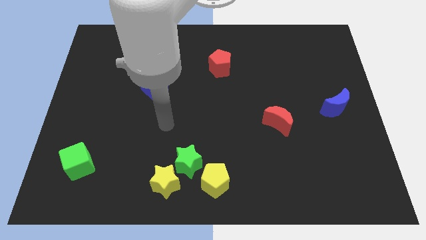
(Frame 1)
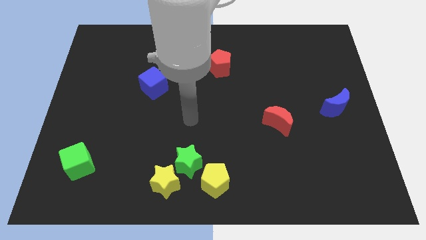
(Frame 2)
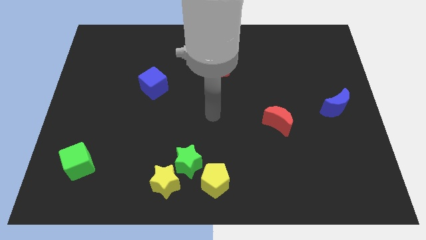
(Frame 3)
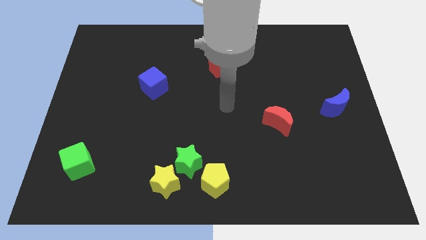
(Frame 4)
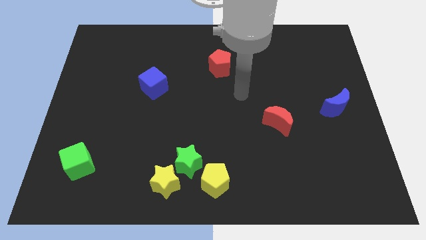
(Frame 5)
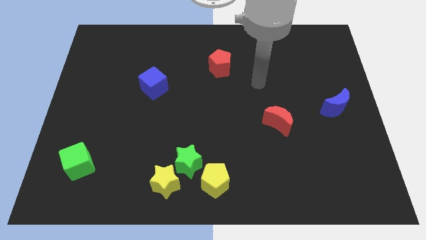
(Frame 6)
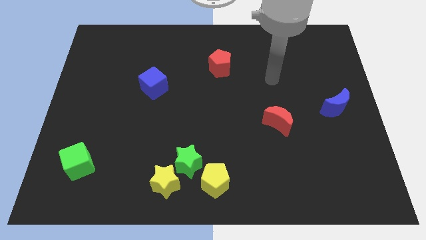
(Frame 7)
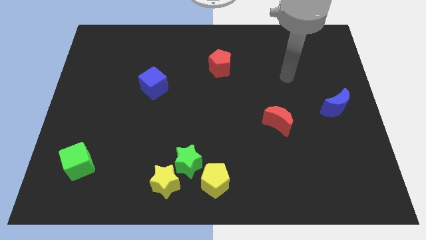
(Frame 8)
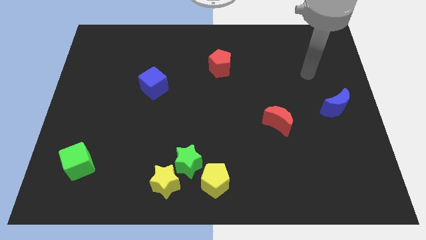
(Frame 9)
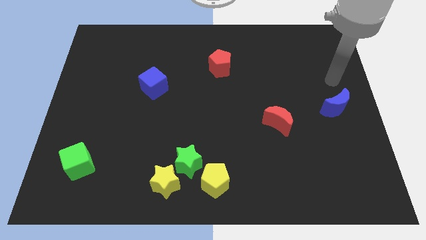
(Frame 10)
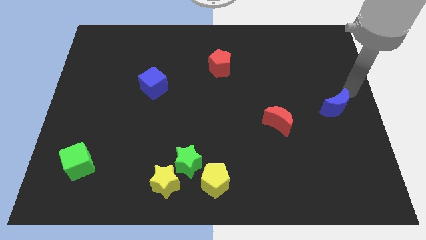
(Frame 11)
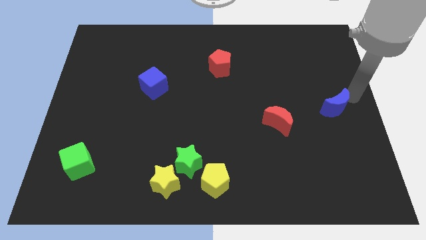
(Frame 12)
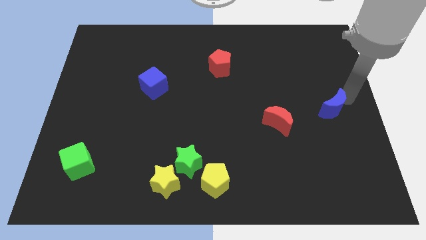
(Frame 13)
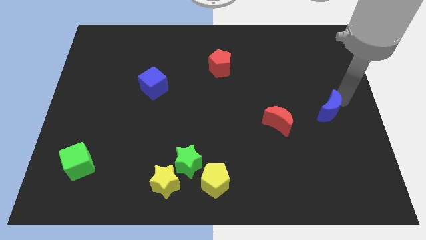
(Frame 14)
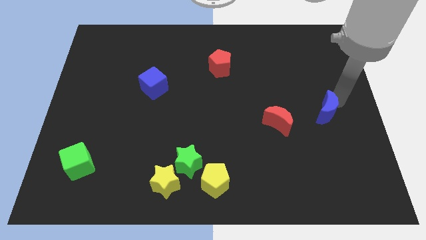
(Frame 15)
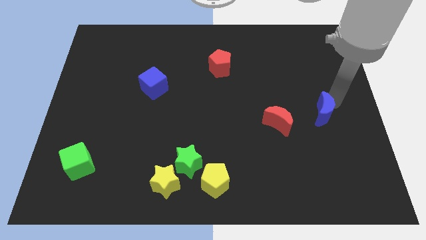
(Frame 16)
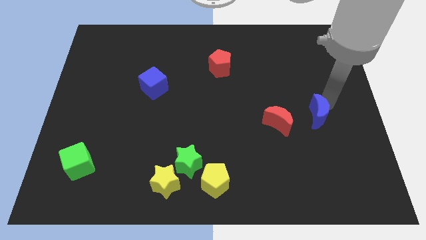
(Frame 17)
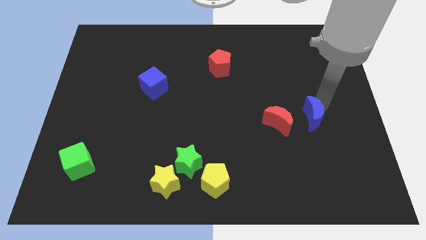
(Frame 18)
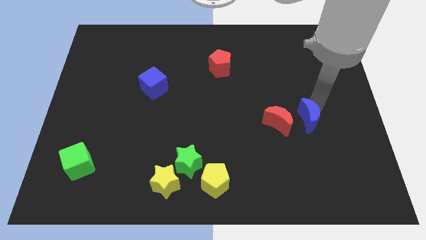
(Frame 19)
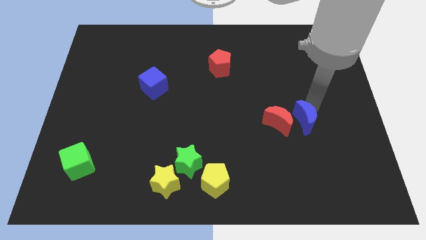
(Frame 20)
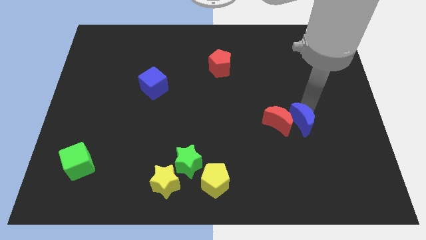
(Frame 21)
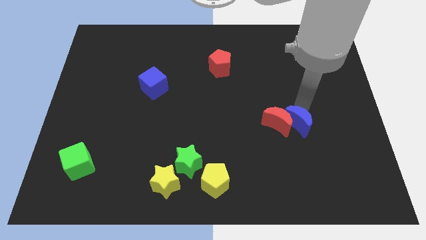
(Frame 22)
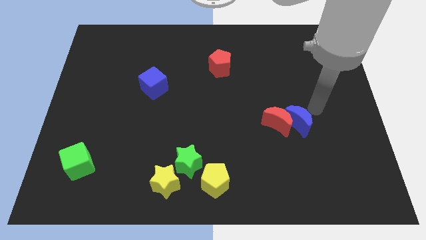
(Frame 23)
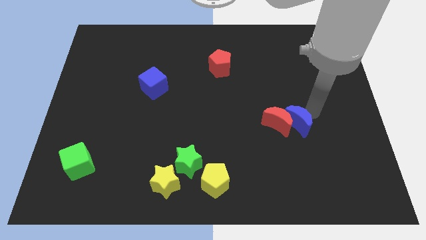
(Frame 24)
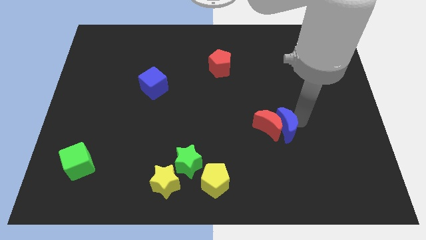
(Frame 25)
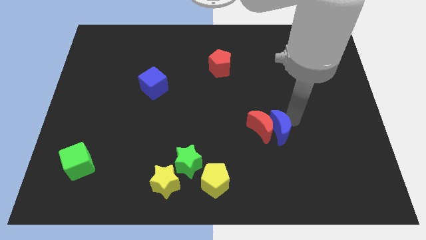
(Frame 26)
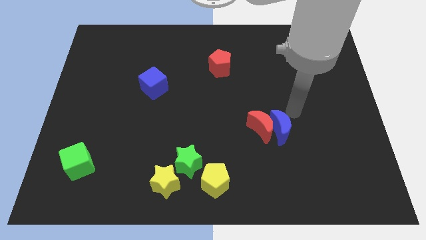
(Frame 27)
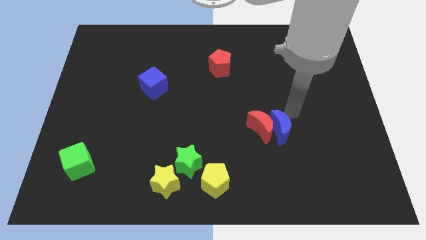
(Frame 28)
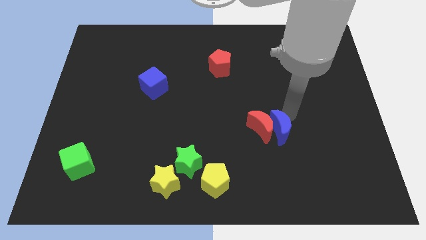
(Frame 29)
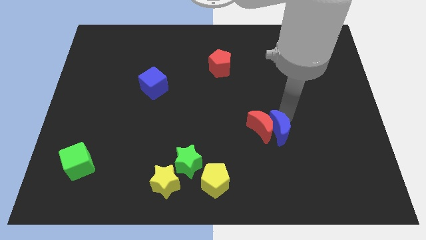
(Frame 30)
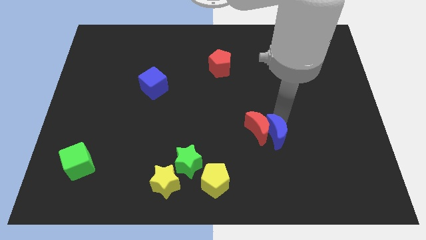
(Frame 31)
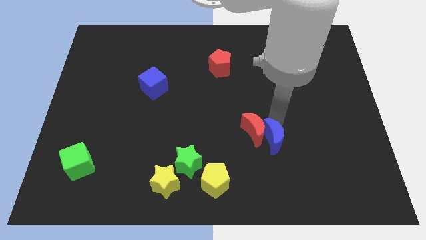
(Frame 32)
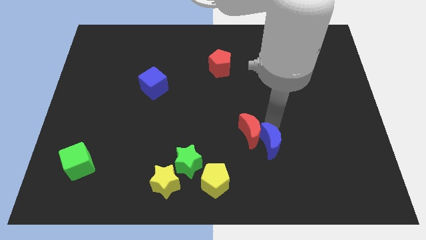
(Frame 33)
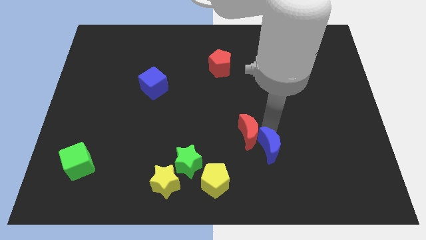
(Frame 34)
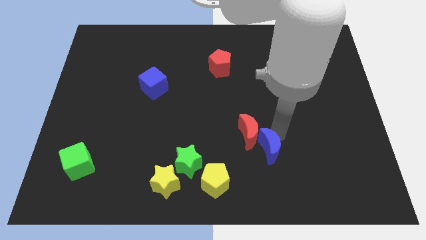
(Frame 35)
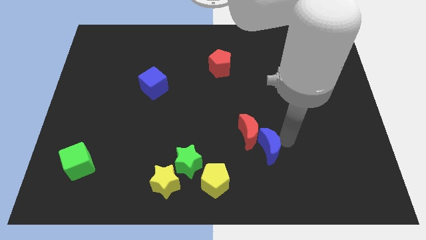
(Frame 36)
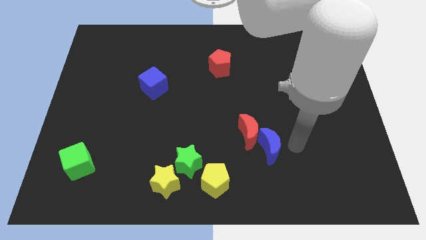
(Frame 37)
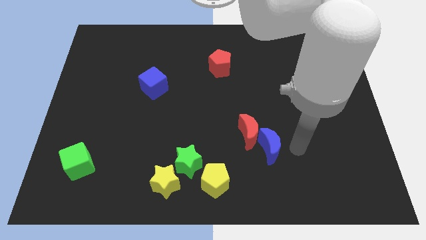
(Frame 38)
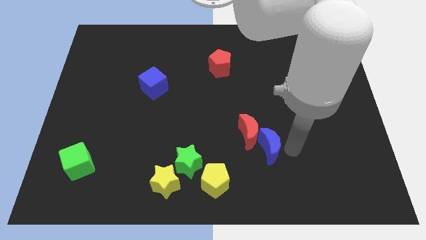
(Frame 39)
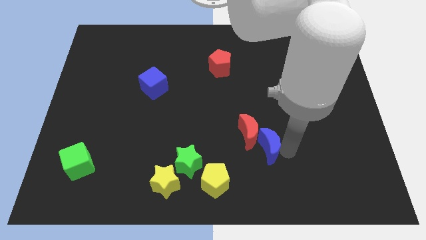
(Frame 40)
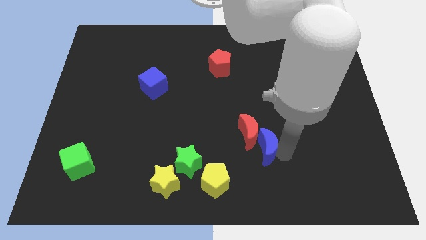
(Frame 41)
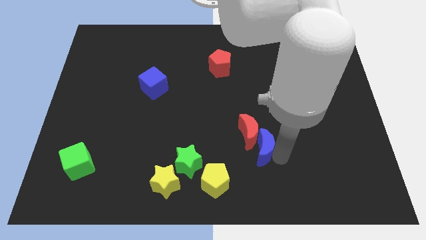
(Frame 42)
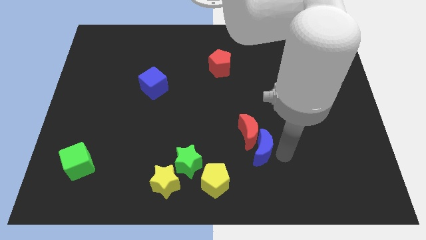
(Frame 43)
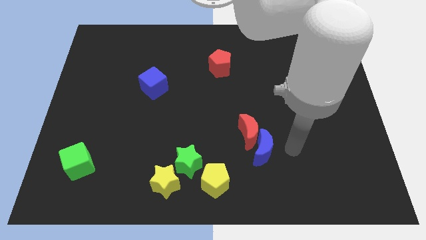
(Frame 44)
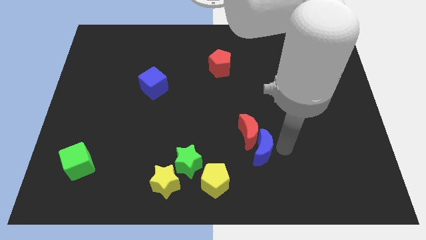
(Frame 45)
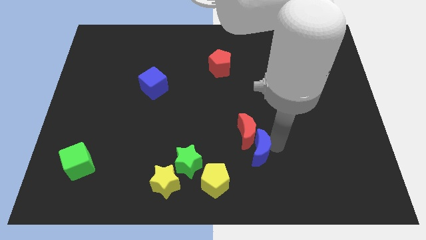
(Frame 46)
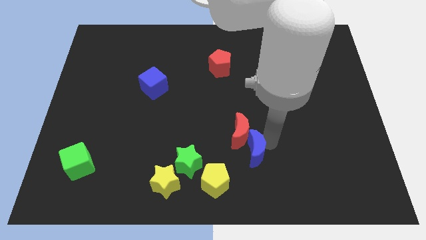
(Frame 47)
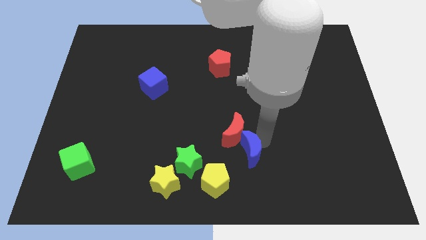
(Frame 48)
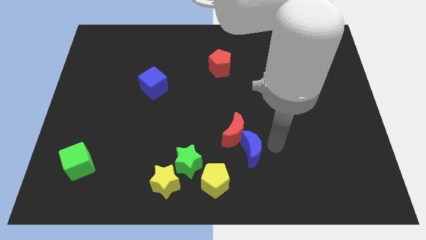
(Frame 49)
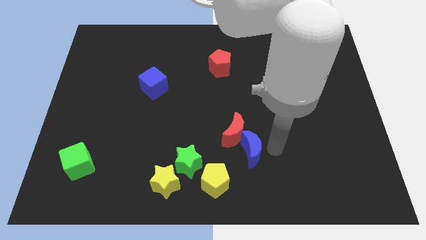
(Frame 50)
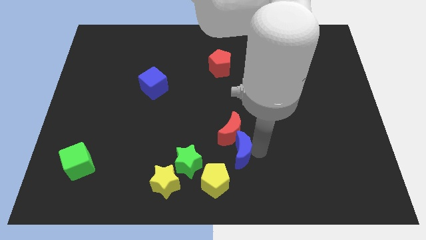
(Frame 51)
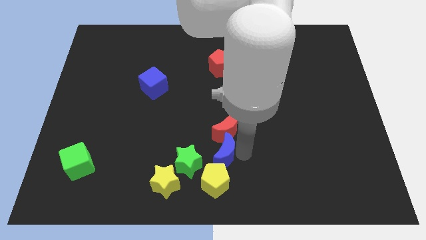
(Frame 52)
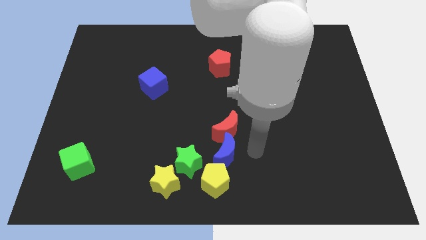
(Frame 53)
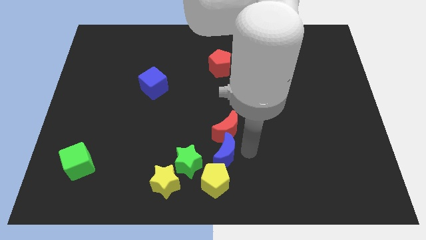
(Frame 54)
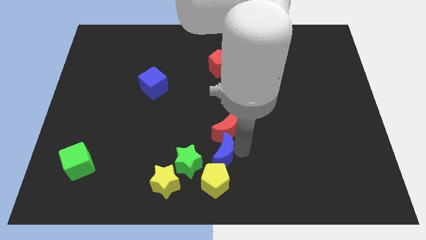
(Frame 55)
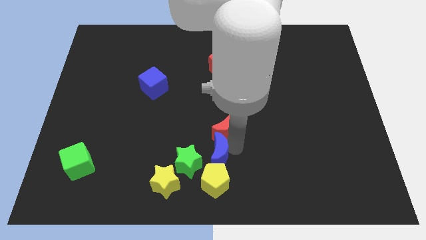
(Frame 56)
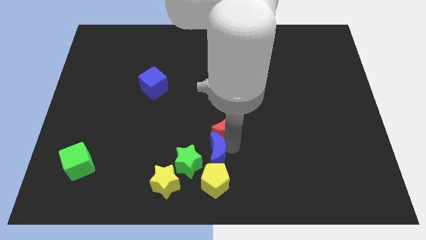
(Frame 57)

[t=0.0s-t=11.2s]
push the blue moon to the top right side of the yellow star

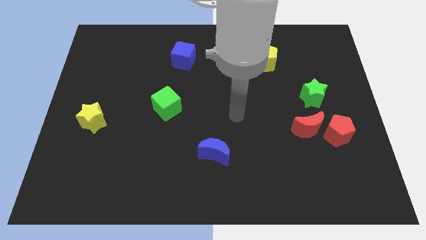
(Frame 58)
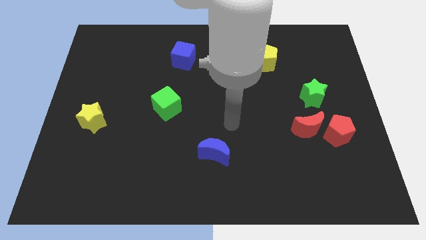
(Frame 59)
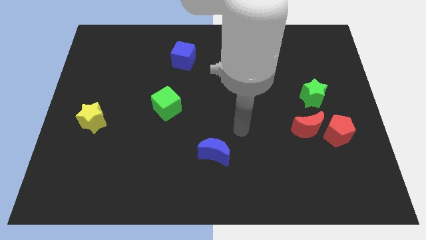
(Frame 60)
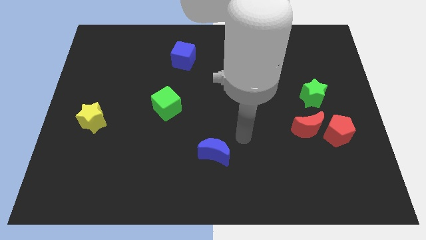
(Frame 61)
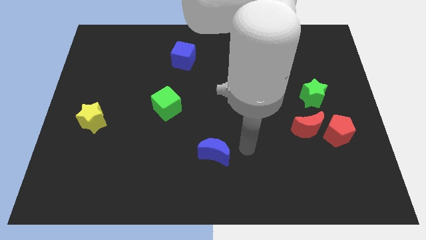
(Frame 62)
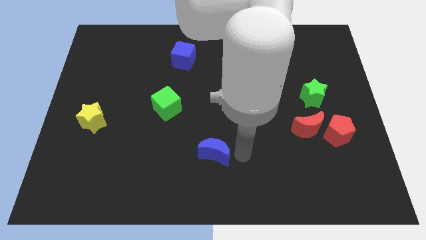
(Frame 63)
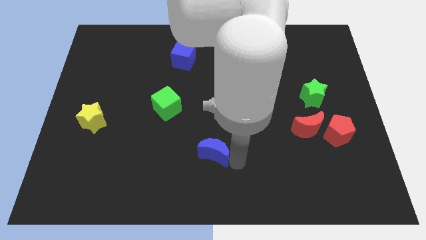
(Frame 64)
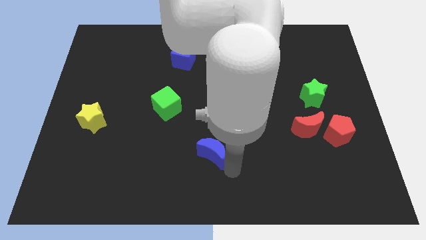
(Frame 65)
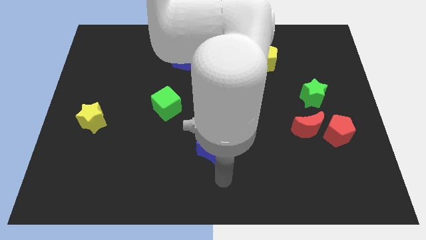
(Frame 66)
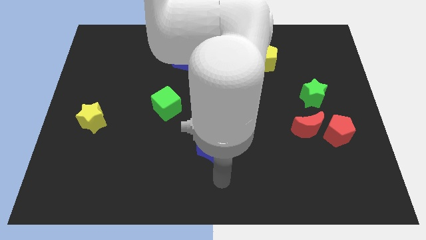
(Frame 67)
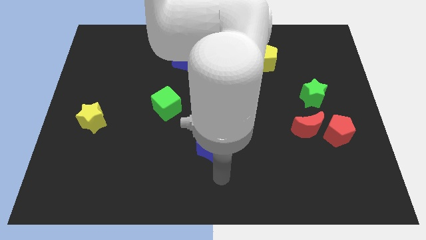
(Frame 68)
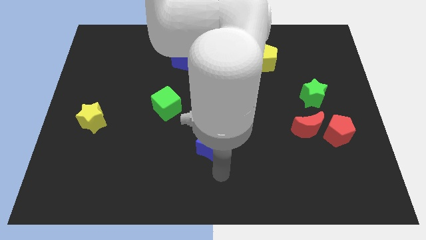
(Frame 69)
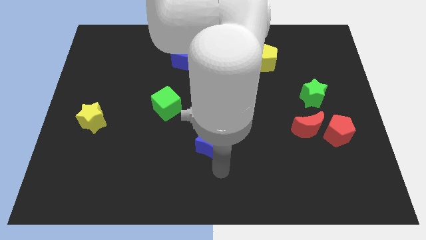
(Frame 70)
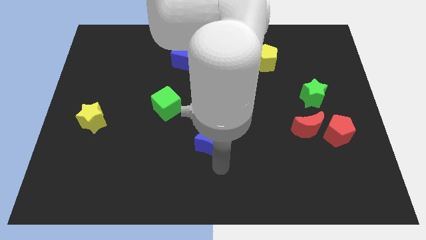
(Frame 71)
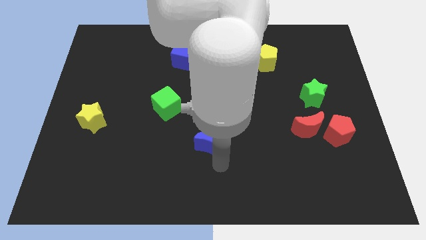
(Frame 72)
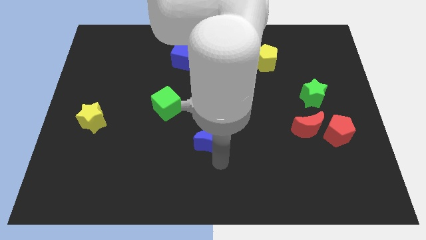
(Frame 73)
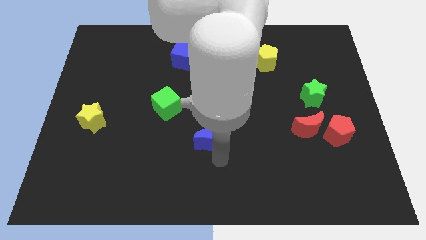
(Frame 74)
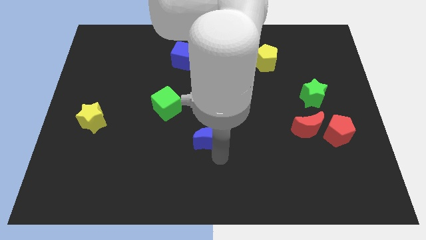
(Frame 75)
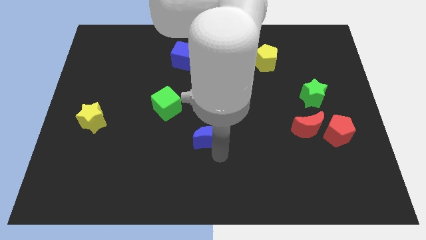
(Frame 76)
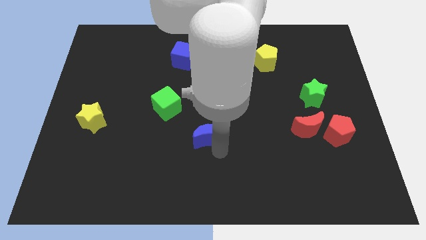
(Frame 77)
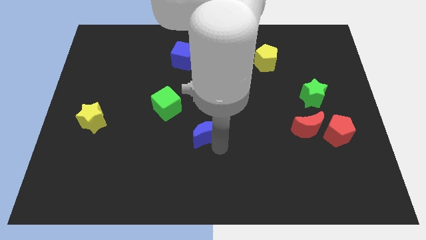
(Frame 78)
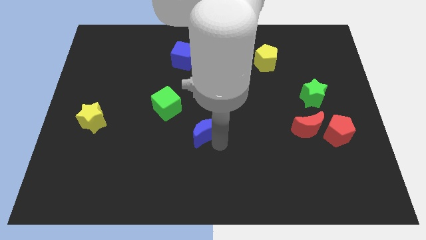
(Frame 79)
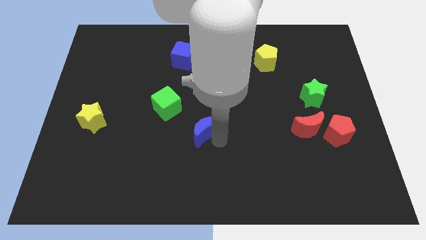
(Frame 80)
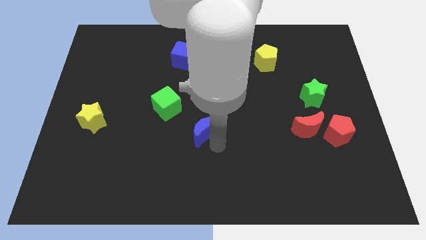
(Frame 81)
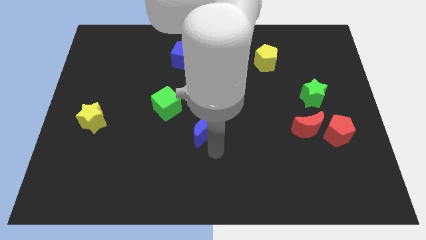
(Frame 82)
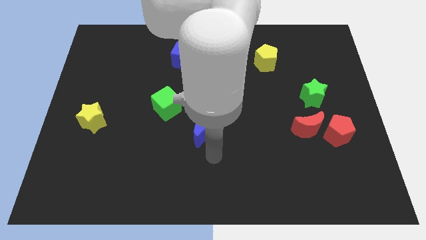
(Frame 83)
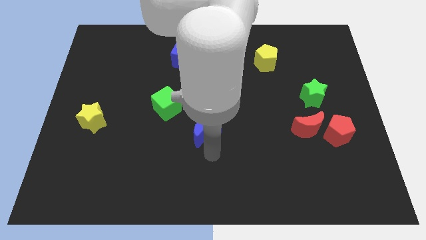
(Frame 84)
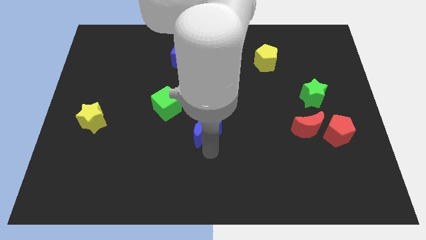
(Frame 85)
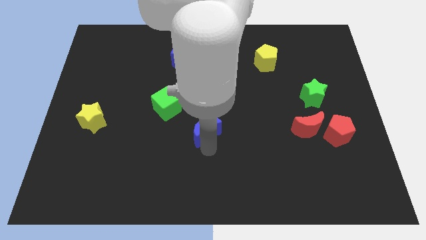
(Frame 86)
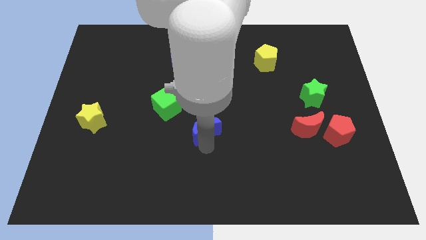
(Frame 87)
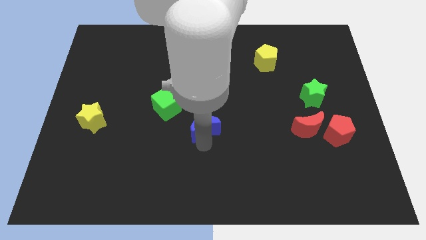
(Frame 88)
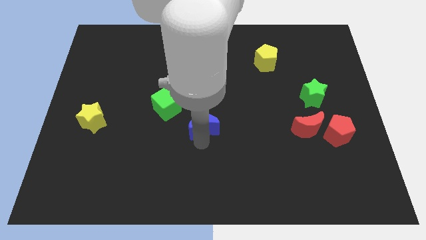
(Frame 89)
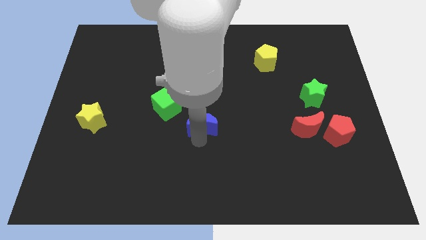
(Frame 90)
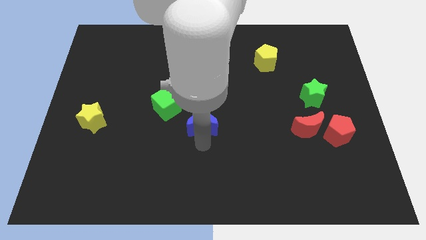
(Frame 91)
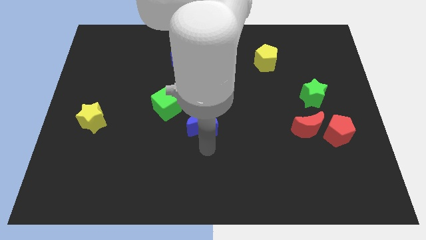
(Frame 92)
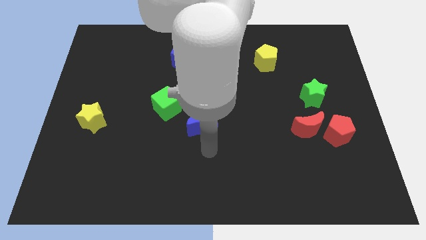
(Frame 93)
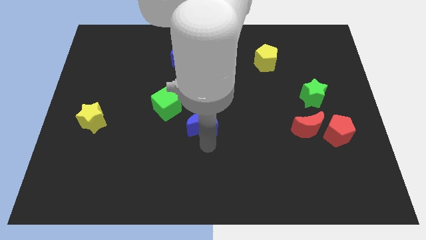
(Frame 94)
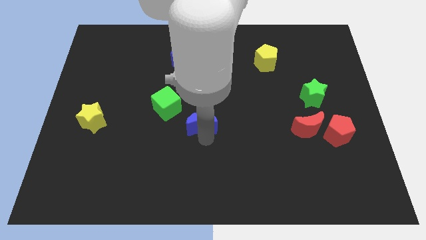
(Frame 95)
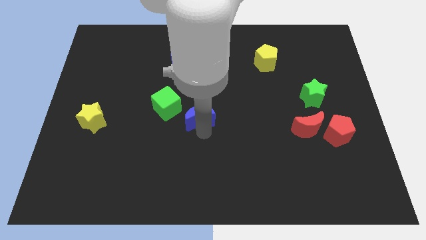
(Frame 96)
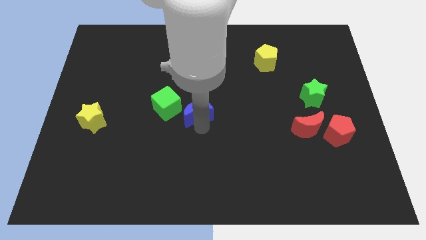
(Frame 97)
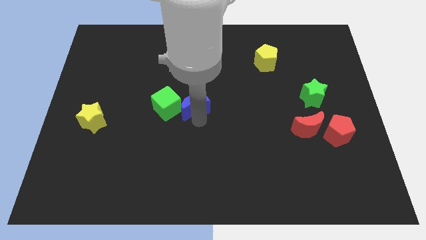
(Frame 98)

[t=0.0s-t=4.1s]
move the blue moon to the top right of the green cube
